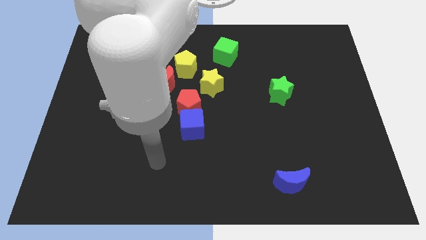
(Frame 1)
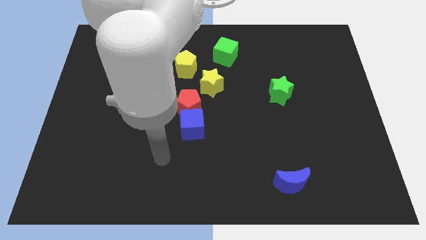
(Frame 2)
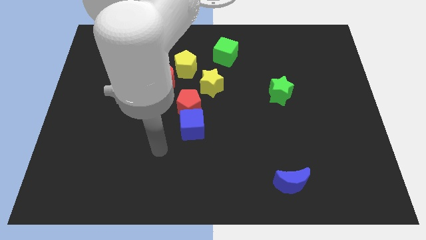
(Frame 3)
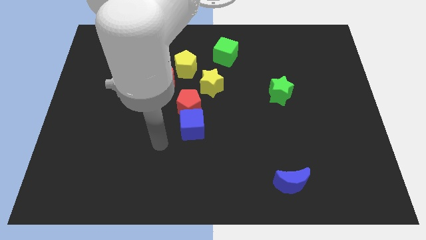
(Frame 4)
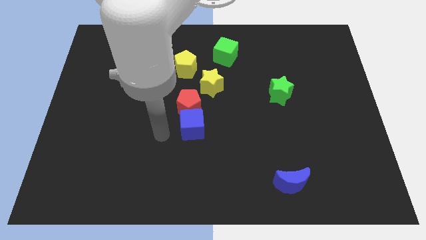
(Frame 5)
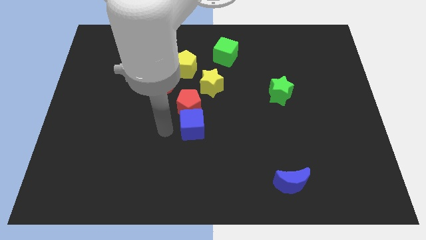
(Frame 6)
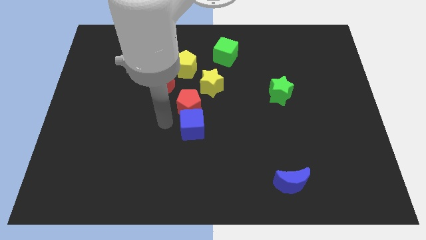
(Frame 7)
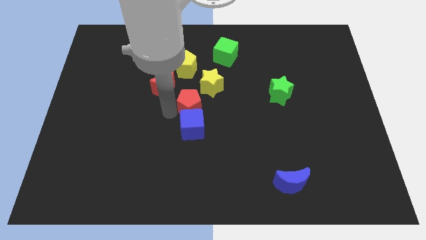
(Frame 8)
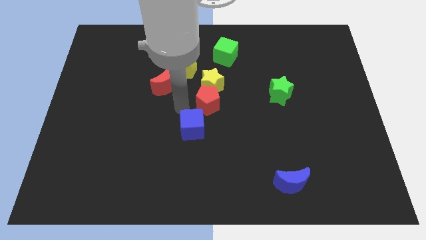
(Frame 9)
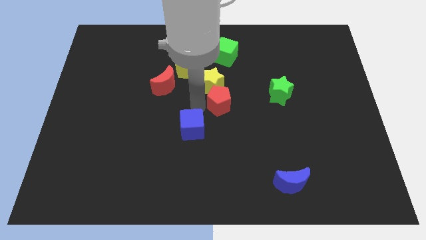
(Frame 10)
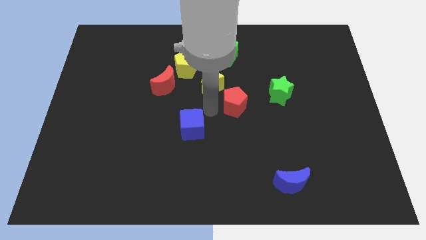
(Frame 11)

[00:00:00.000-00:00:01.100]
separate the blue cube from the red pentagon

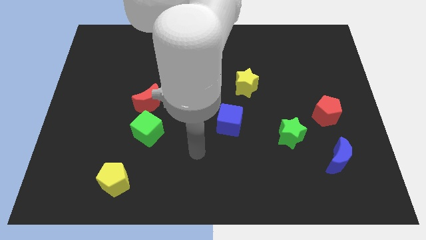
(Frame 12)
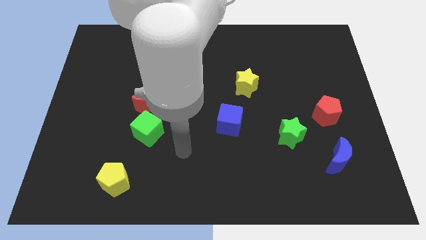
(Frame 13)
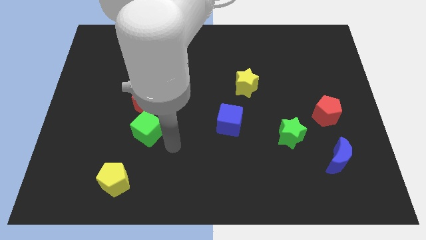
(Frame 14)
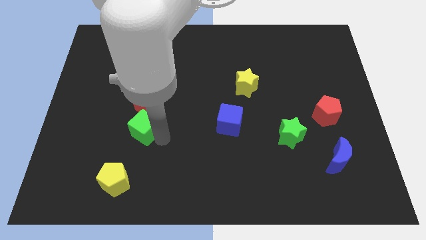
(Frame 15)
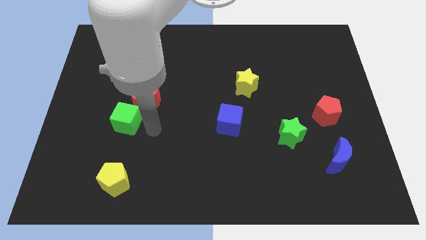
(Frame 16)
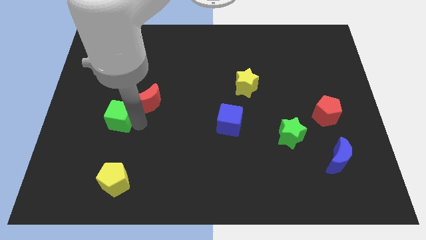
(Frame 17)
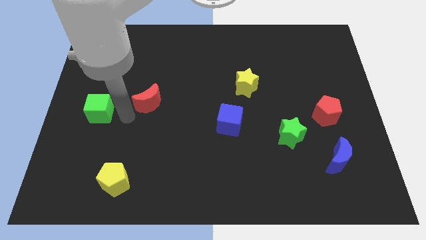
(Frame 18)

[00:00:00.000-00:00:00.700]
separate the red moon from the green cube

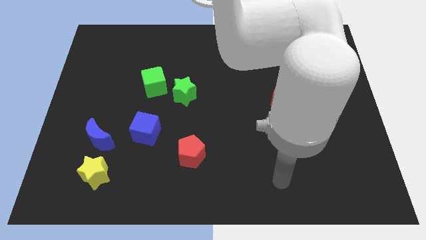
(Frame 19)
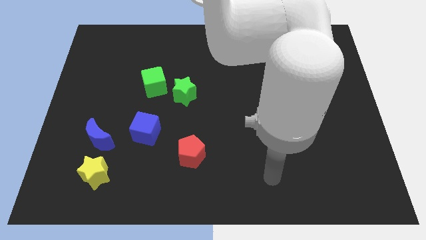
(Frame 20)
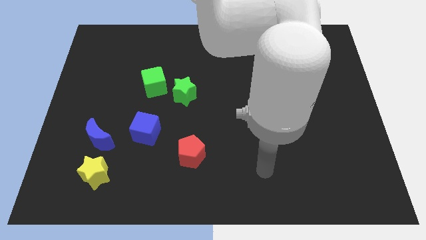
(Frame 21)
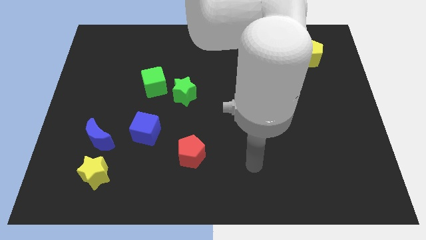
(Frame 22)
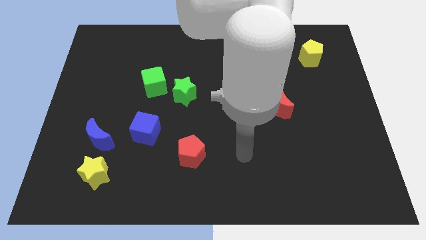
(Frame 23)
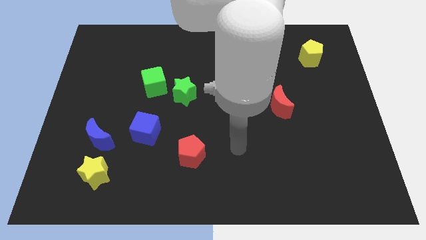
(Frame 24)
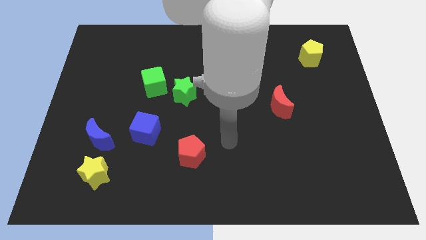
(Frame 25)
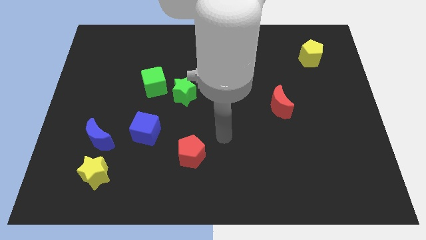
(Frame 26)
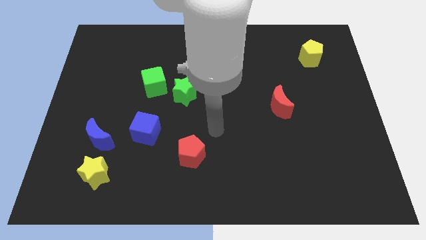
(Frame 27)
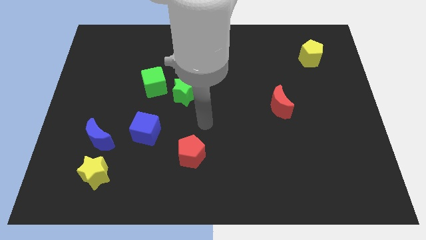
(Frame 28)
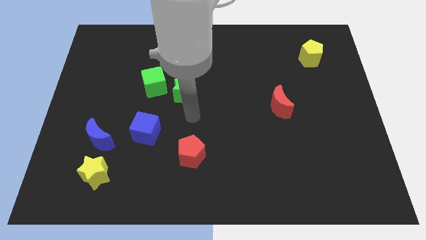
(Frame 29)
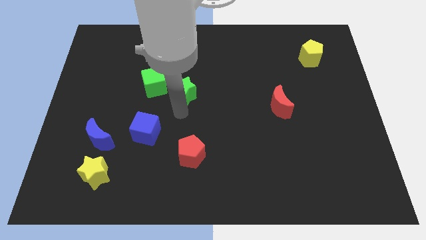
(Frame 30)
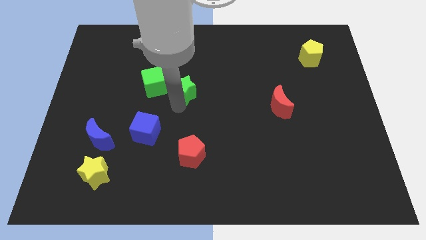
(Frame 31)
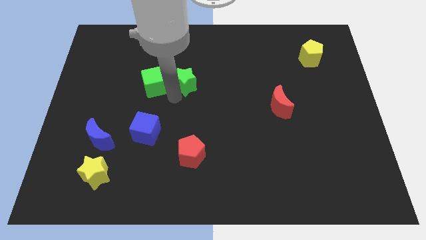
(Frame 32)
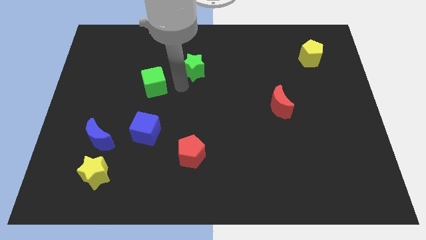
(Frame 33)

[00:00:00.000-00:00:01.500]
move the green cube away from the green star

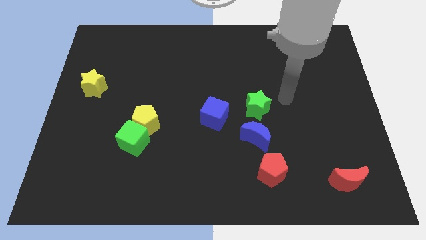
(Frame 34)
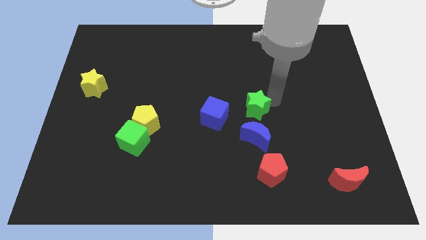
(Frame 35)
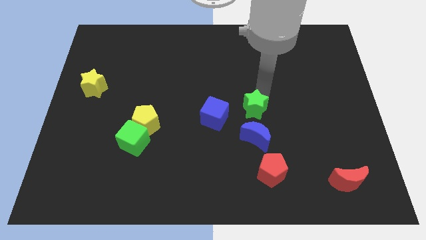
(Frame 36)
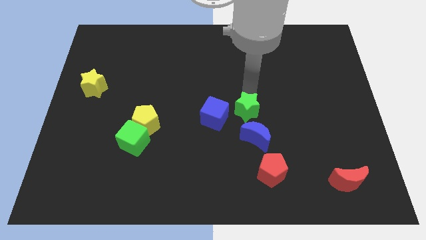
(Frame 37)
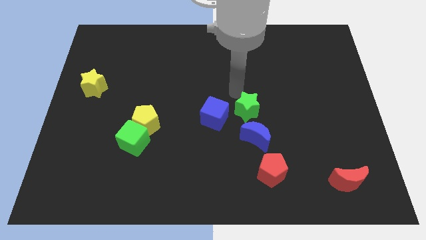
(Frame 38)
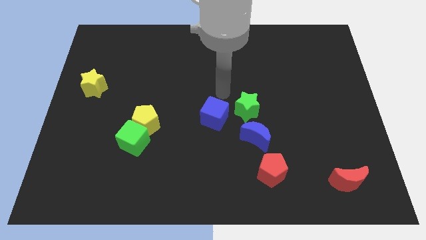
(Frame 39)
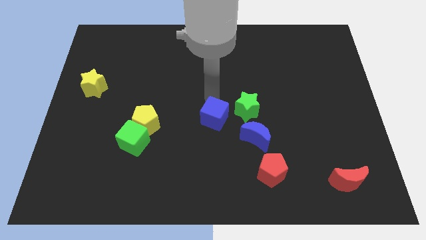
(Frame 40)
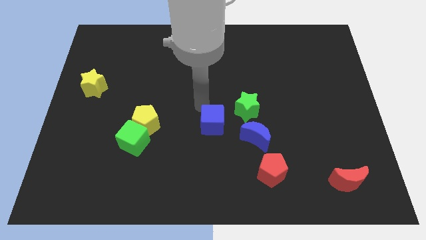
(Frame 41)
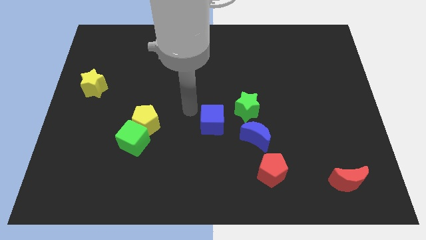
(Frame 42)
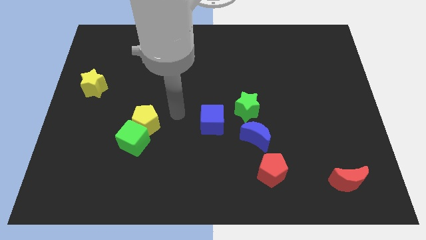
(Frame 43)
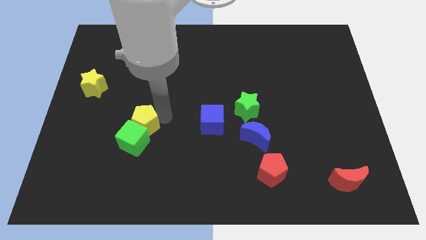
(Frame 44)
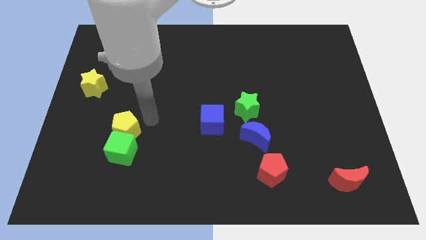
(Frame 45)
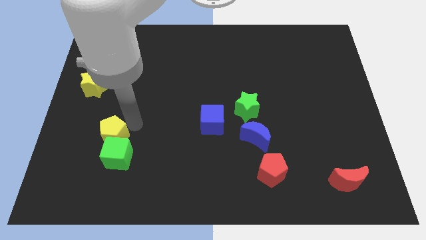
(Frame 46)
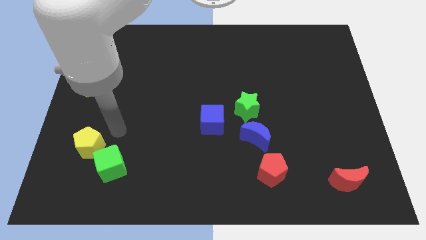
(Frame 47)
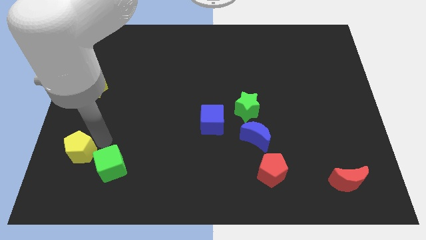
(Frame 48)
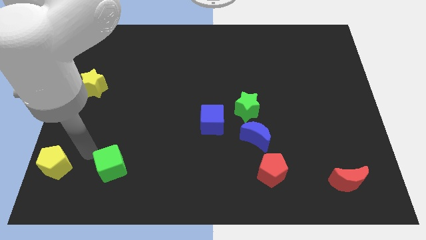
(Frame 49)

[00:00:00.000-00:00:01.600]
pull the green cube apart from the yellow pentagon

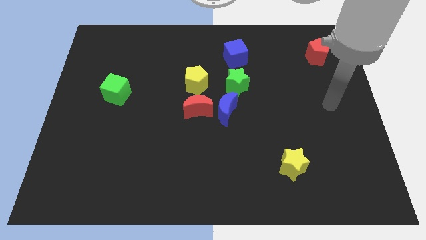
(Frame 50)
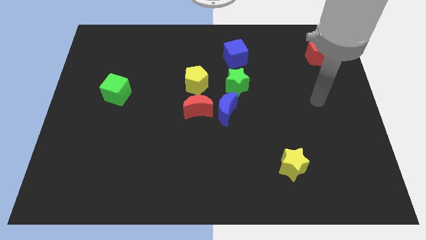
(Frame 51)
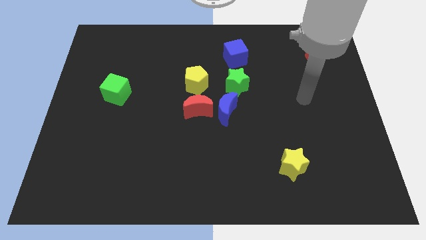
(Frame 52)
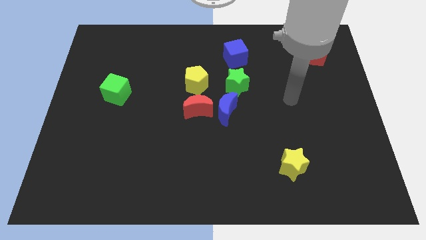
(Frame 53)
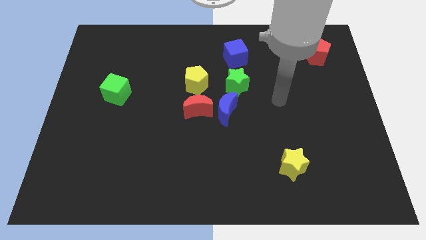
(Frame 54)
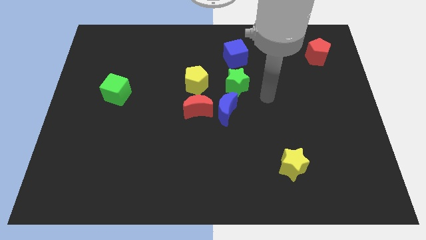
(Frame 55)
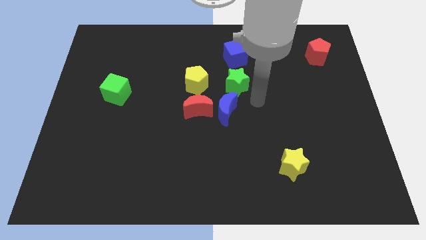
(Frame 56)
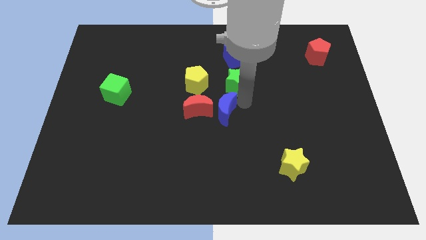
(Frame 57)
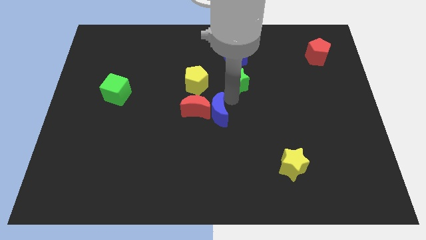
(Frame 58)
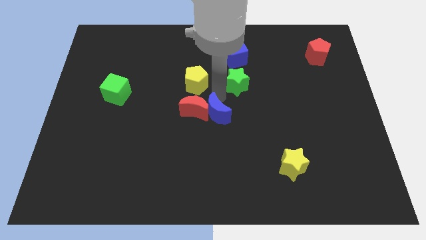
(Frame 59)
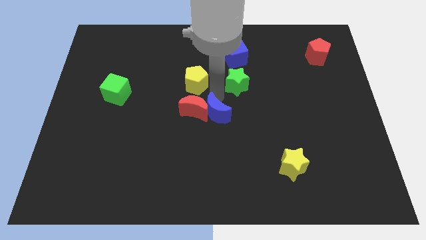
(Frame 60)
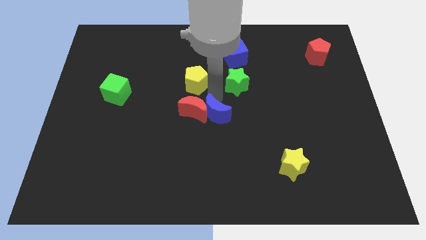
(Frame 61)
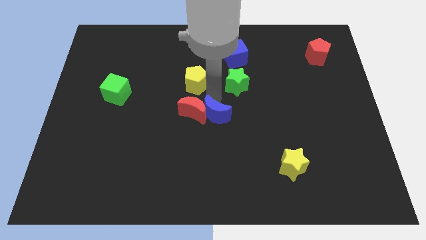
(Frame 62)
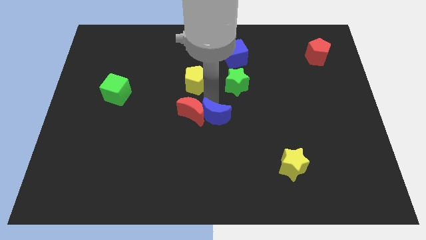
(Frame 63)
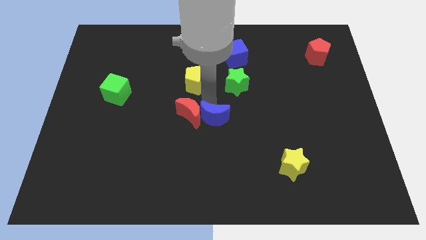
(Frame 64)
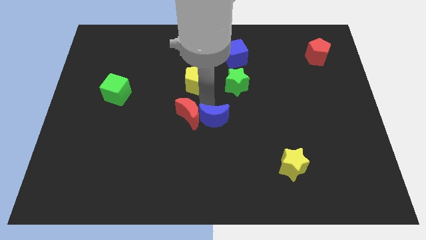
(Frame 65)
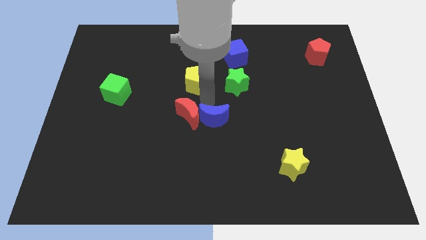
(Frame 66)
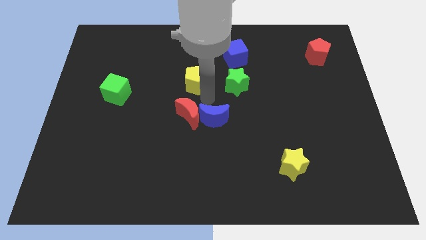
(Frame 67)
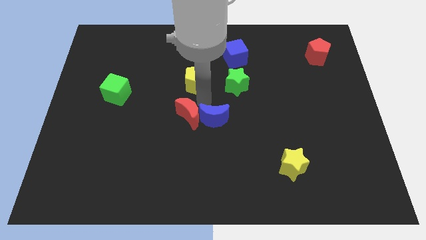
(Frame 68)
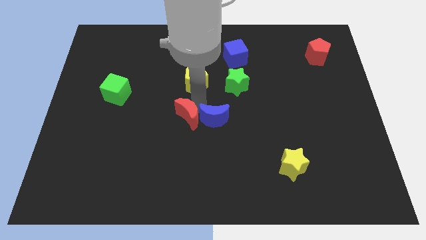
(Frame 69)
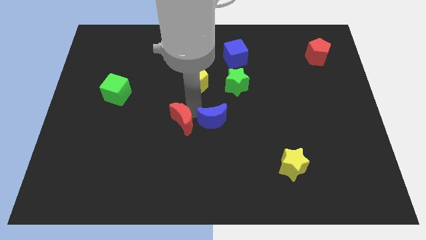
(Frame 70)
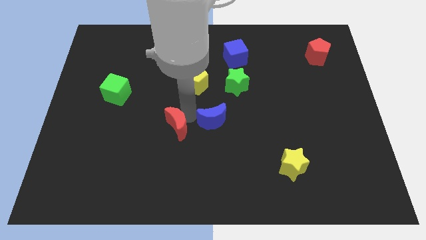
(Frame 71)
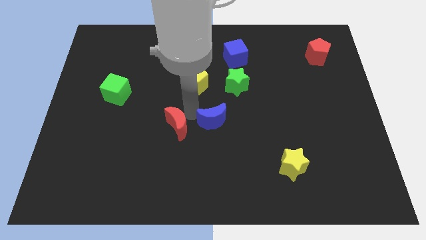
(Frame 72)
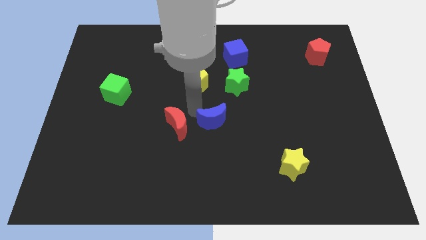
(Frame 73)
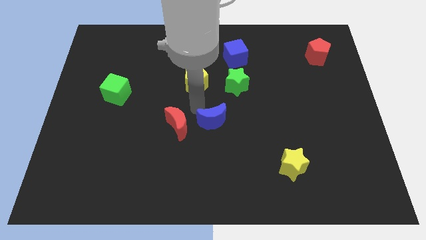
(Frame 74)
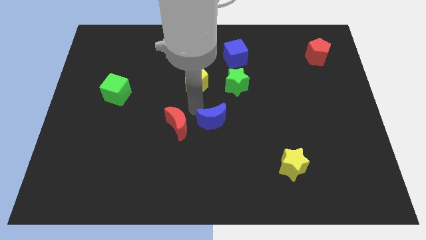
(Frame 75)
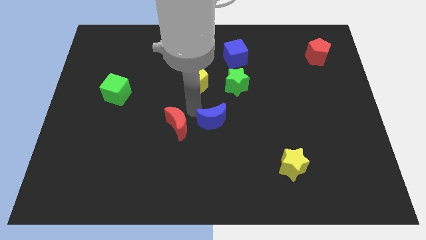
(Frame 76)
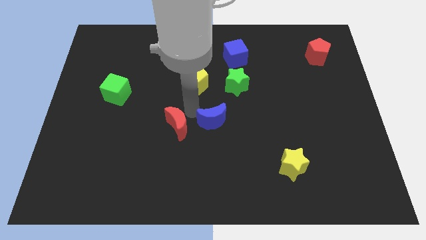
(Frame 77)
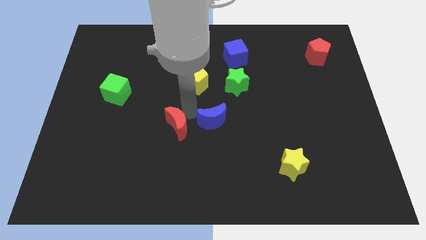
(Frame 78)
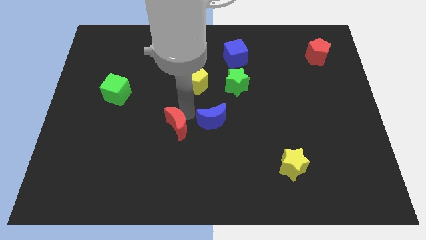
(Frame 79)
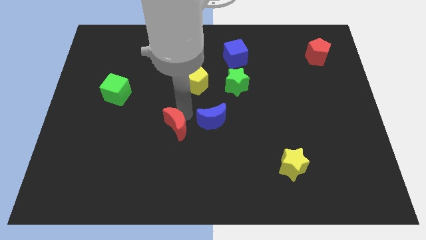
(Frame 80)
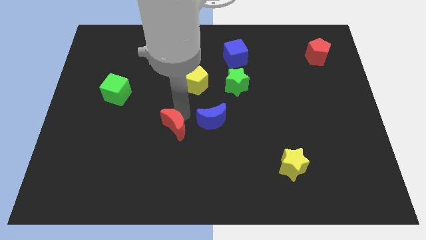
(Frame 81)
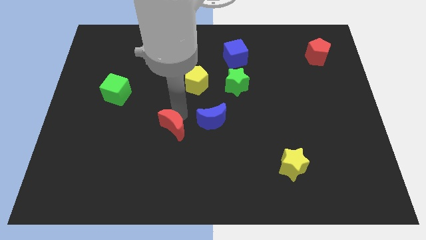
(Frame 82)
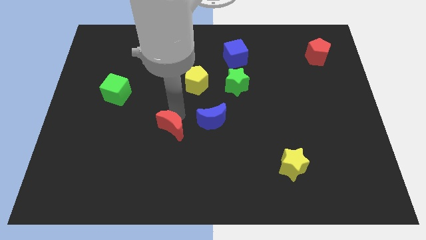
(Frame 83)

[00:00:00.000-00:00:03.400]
pull the red moon apart from the blue moon and yellow pentagon

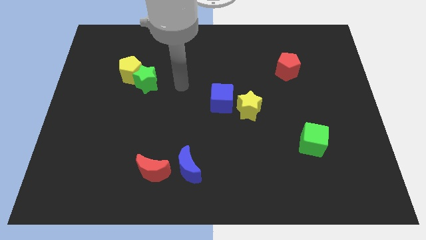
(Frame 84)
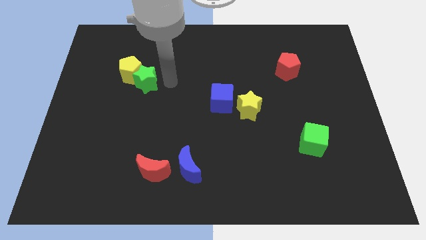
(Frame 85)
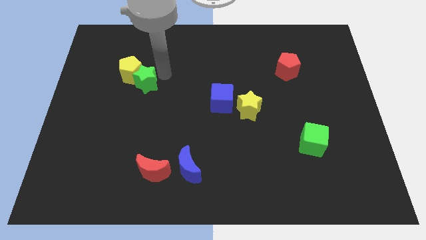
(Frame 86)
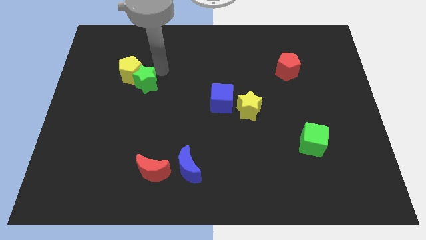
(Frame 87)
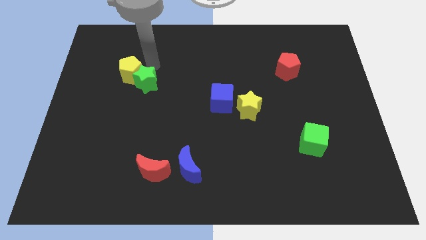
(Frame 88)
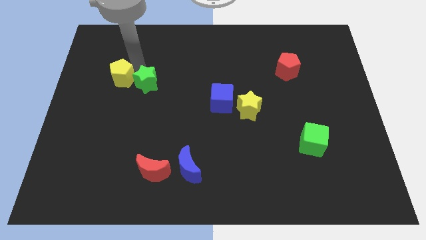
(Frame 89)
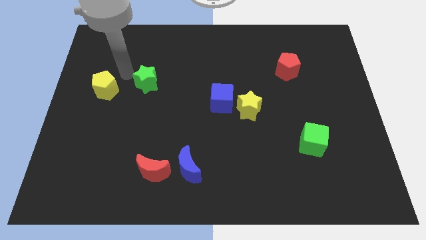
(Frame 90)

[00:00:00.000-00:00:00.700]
move the green star away from the yellow pentagon

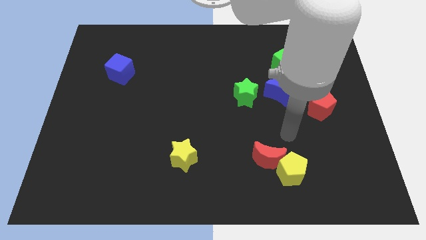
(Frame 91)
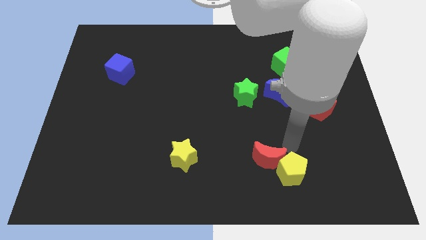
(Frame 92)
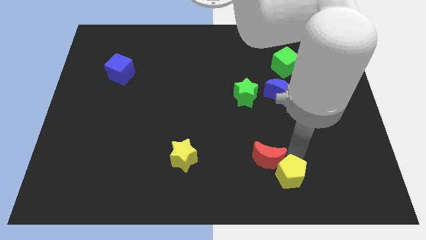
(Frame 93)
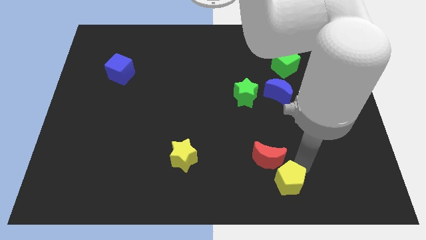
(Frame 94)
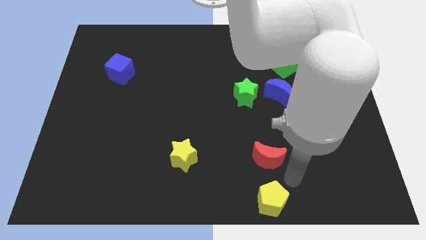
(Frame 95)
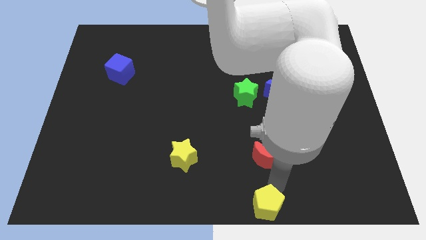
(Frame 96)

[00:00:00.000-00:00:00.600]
separate the red moon from the yellow pentagon
